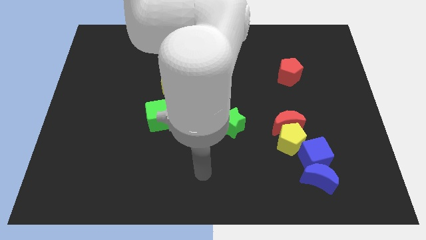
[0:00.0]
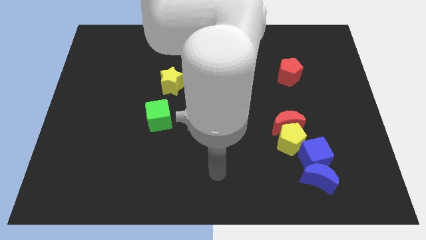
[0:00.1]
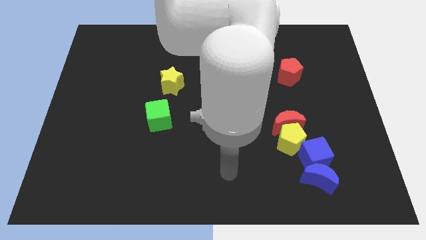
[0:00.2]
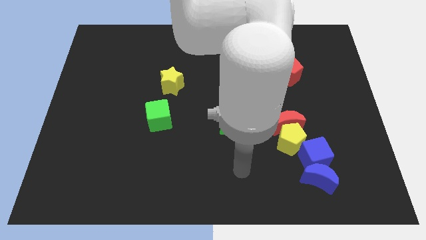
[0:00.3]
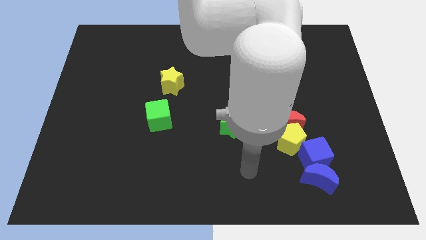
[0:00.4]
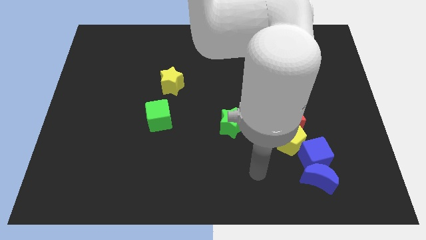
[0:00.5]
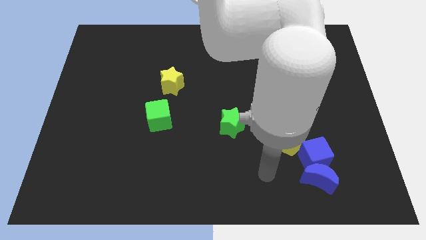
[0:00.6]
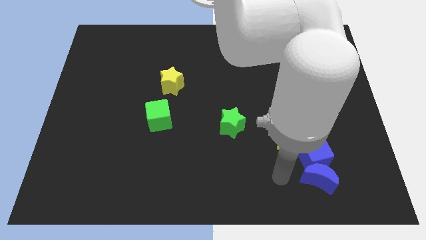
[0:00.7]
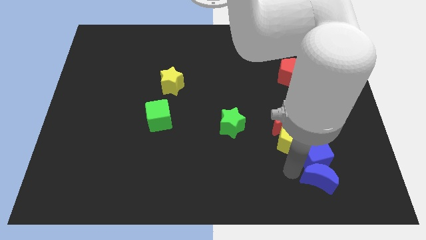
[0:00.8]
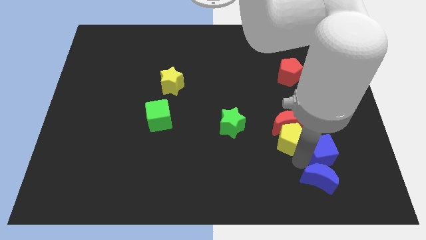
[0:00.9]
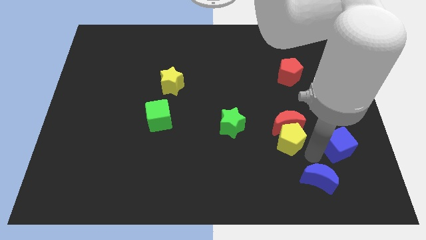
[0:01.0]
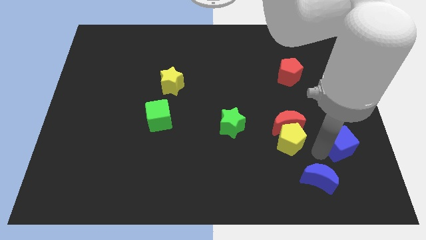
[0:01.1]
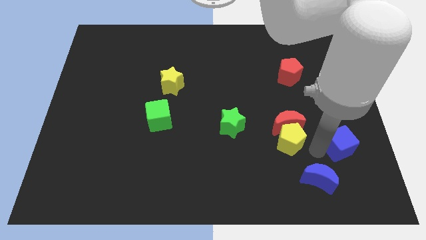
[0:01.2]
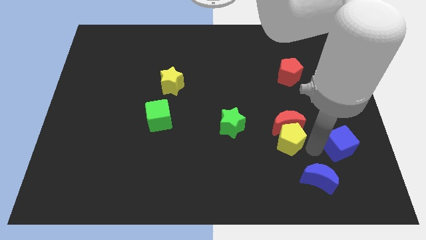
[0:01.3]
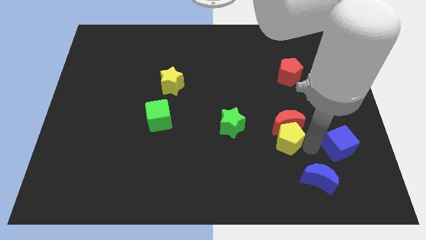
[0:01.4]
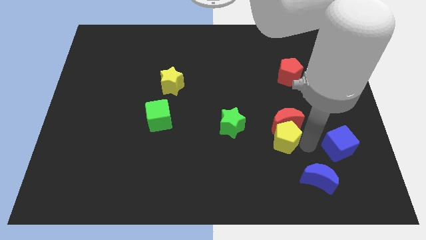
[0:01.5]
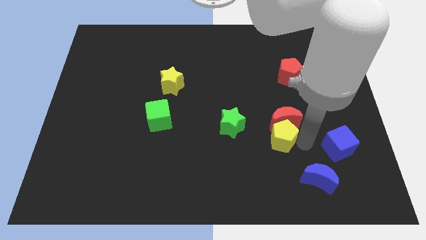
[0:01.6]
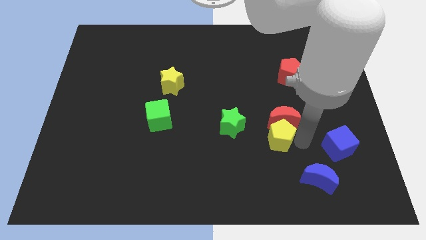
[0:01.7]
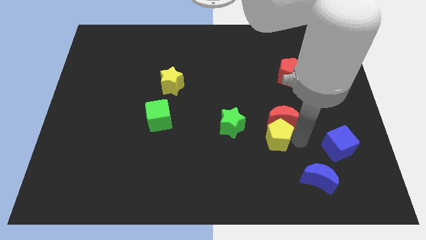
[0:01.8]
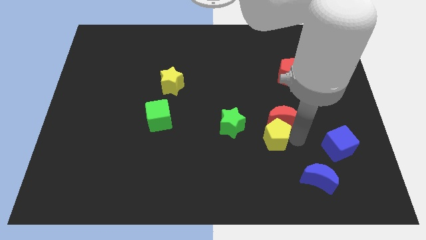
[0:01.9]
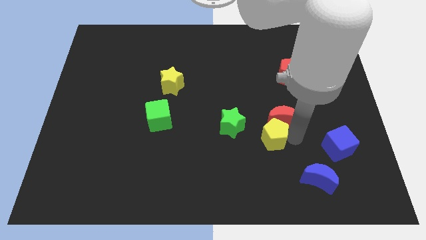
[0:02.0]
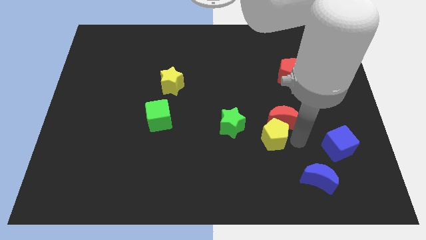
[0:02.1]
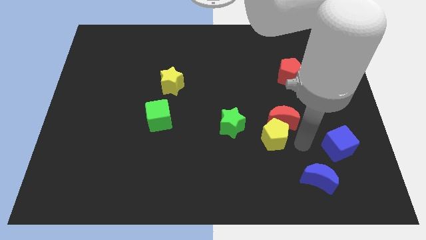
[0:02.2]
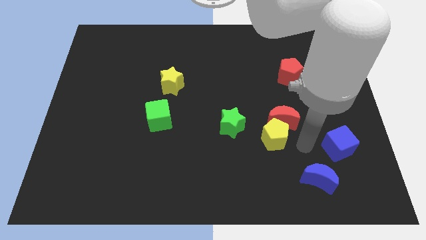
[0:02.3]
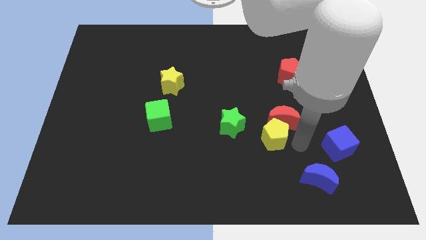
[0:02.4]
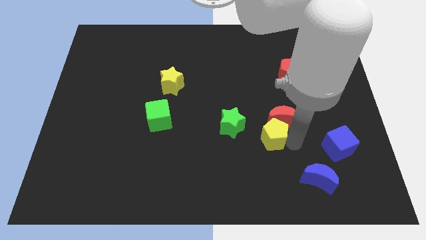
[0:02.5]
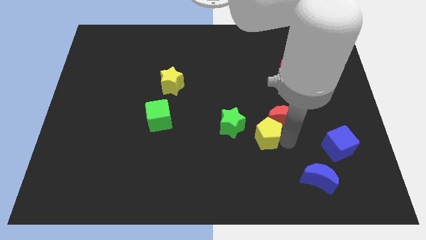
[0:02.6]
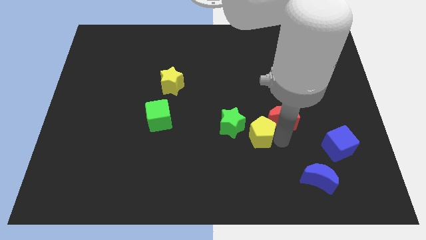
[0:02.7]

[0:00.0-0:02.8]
move the yellow pentagon away from the group

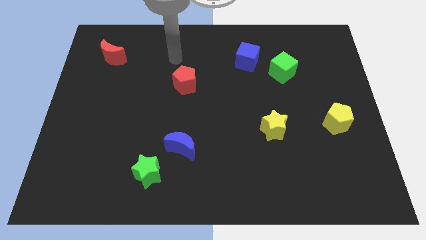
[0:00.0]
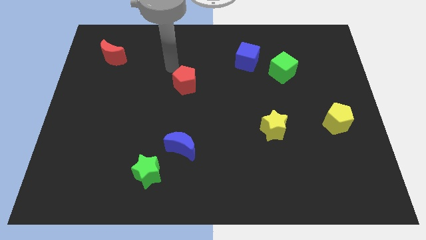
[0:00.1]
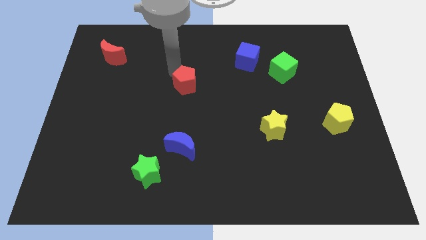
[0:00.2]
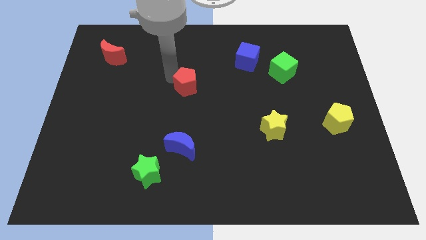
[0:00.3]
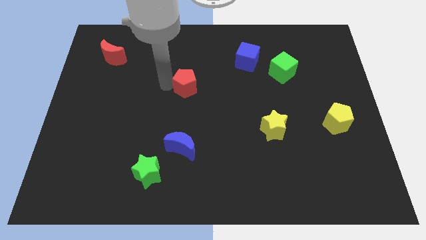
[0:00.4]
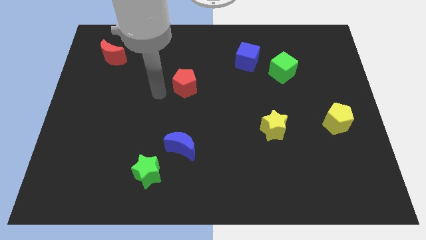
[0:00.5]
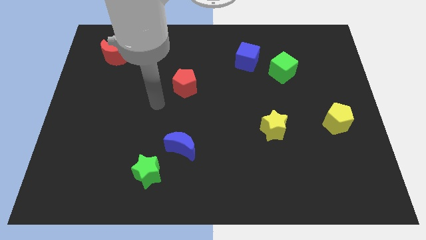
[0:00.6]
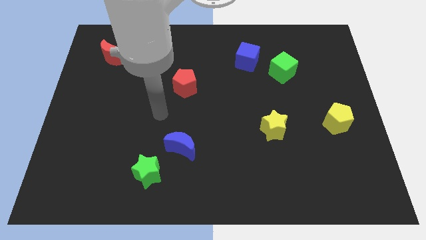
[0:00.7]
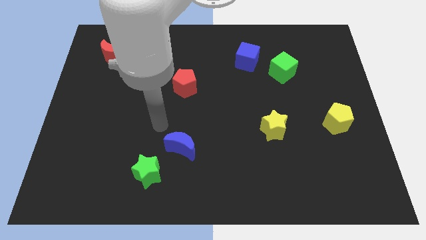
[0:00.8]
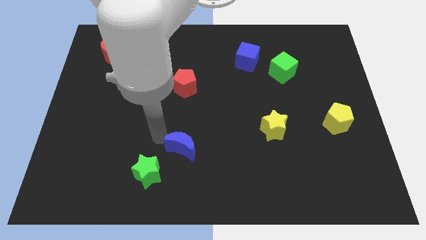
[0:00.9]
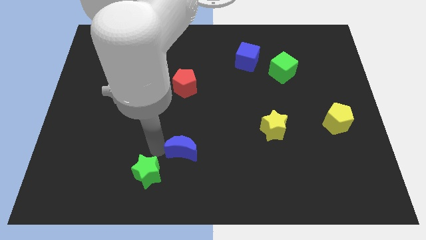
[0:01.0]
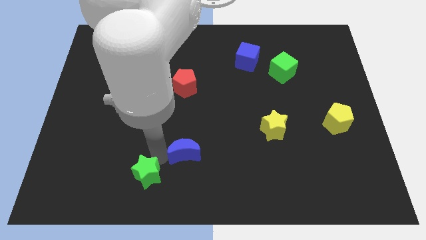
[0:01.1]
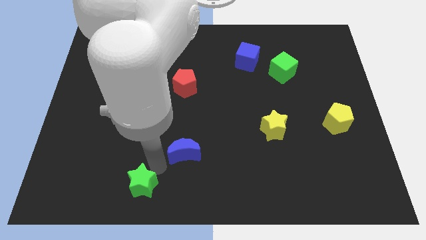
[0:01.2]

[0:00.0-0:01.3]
pull the blue moon apart from the green star

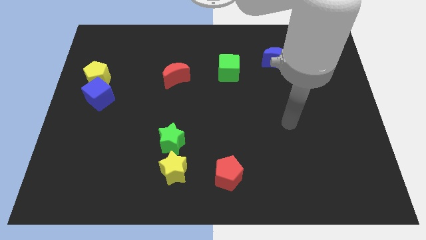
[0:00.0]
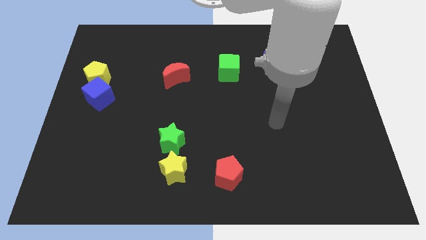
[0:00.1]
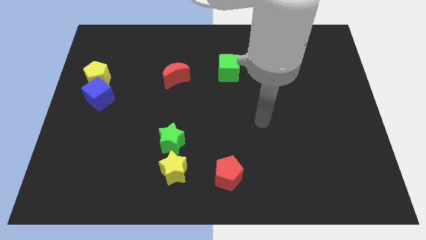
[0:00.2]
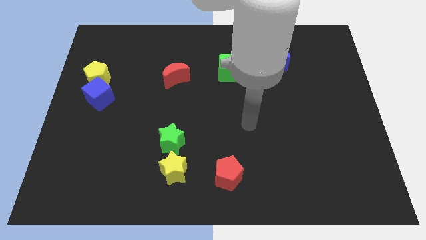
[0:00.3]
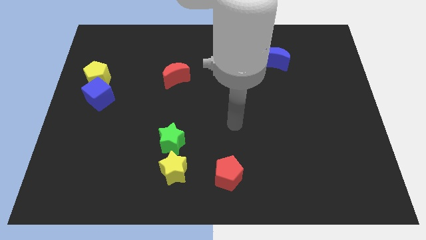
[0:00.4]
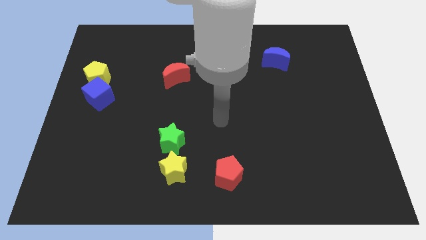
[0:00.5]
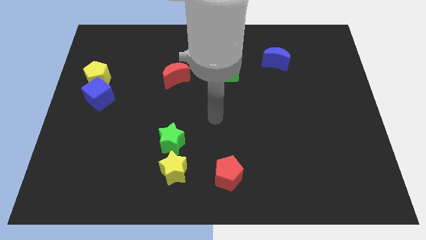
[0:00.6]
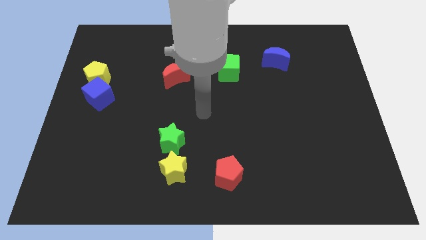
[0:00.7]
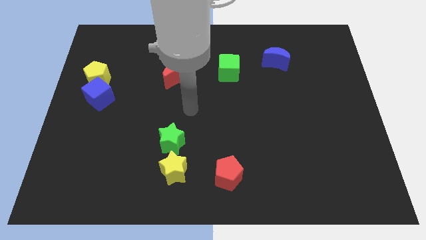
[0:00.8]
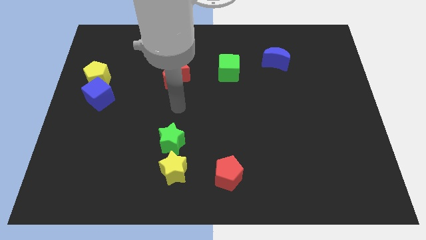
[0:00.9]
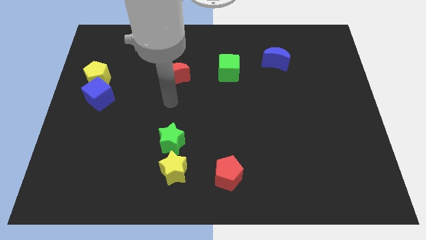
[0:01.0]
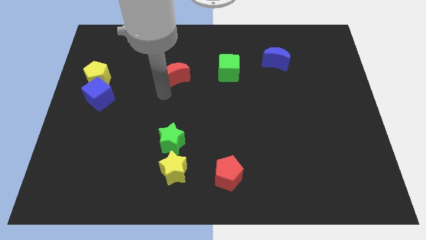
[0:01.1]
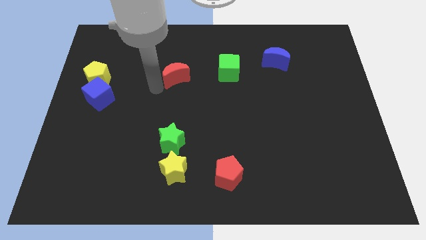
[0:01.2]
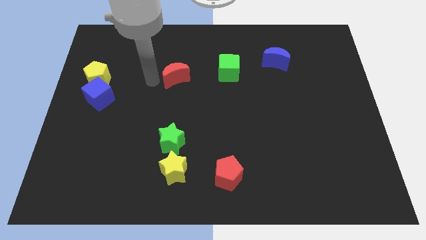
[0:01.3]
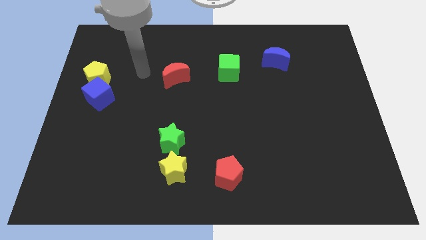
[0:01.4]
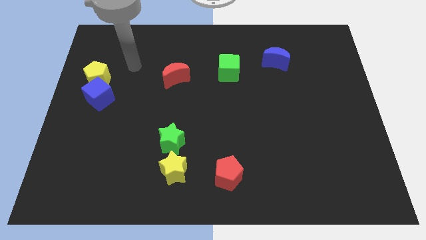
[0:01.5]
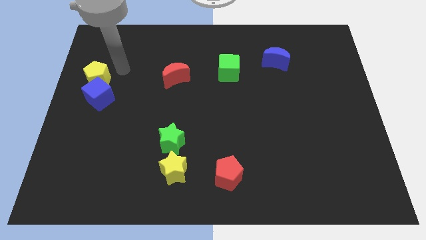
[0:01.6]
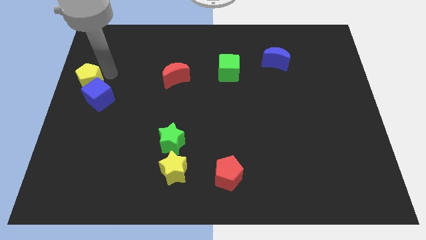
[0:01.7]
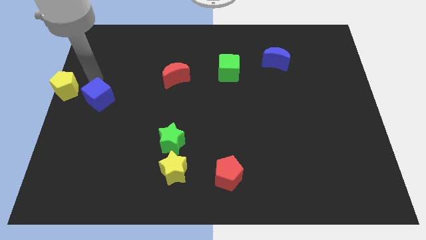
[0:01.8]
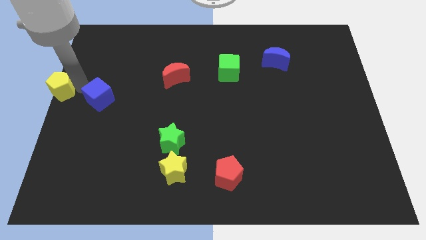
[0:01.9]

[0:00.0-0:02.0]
separate the blue cube from the yellow pentagon

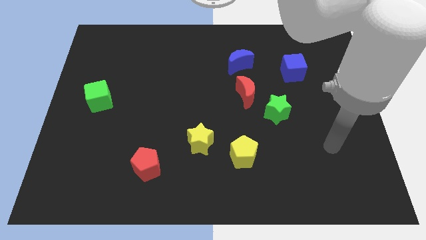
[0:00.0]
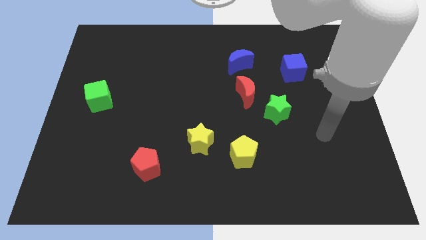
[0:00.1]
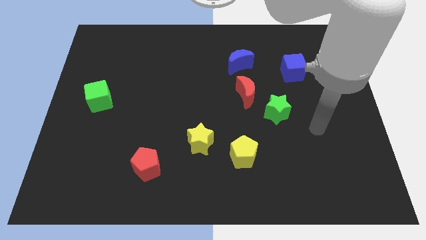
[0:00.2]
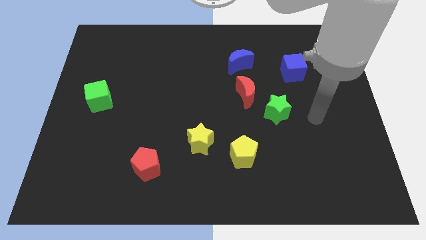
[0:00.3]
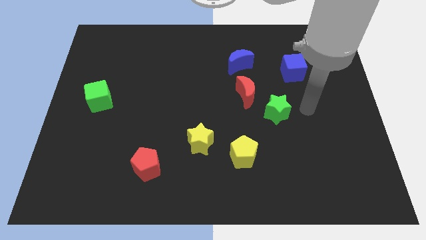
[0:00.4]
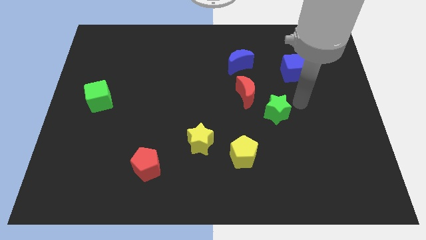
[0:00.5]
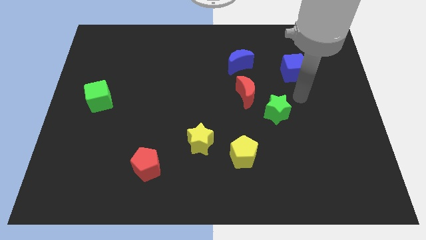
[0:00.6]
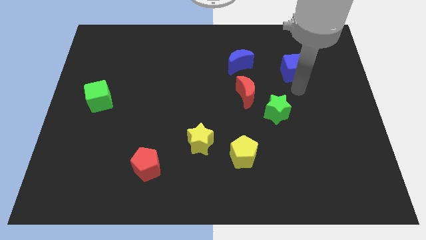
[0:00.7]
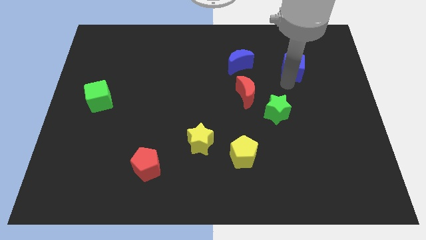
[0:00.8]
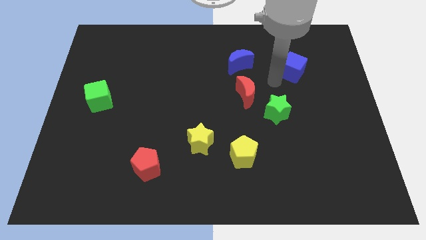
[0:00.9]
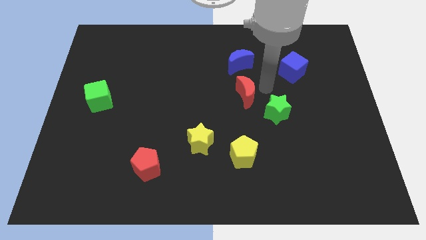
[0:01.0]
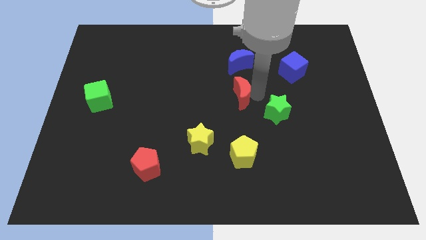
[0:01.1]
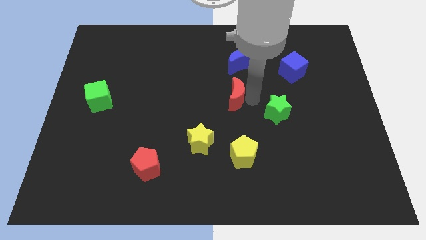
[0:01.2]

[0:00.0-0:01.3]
move the green star away from the red moon

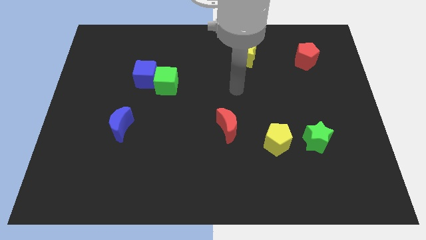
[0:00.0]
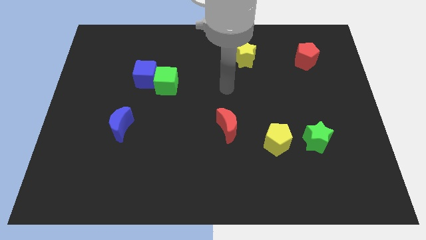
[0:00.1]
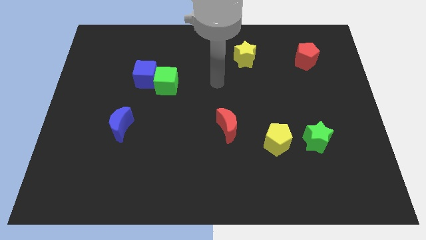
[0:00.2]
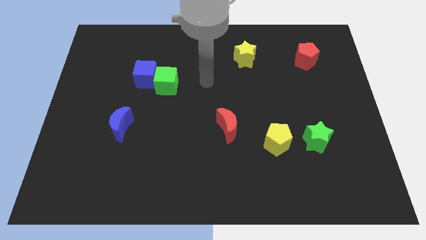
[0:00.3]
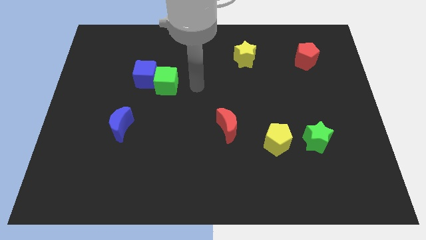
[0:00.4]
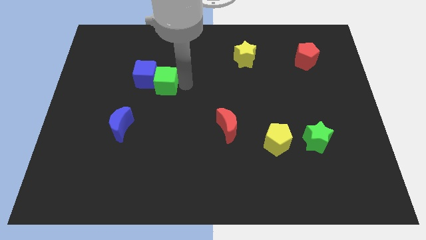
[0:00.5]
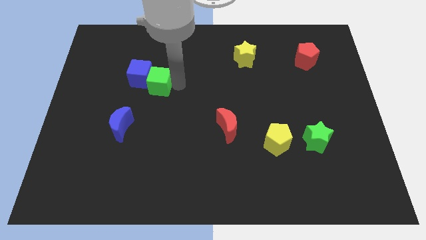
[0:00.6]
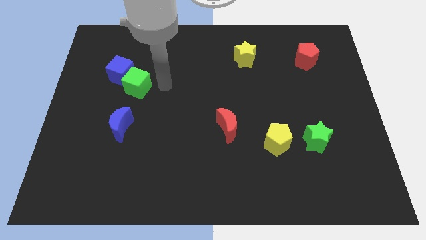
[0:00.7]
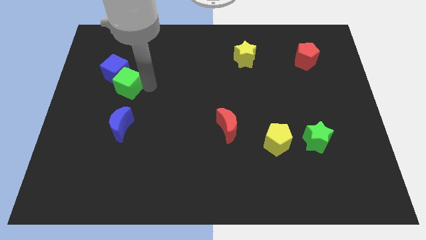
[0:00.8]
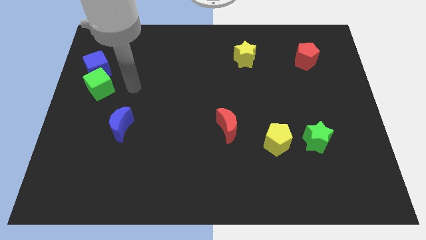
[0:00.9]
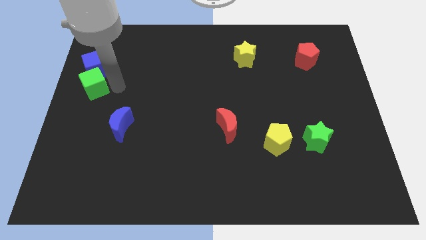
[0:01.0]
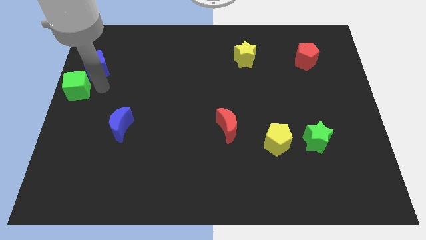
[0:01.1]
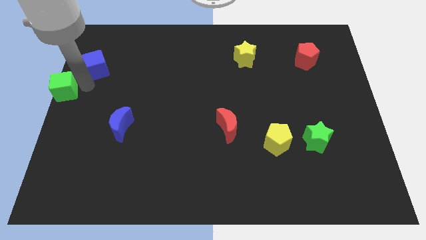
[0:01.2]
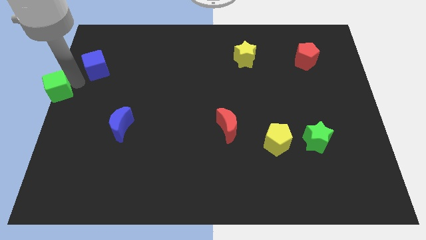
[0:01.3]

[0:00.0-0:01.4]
pull the blue cube apart from the green cube

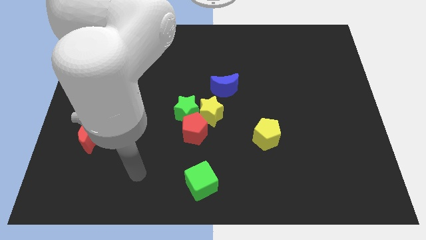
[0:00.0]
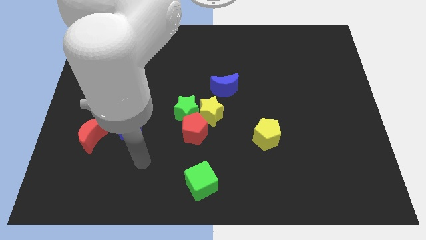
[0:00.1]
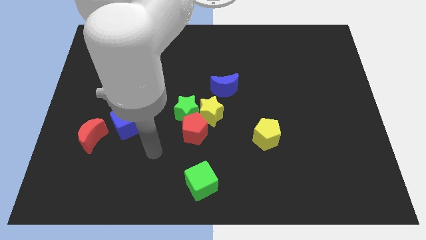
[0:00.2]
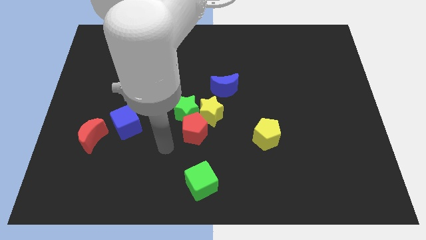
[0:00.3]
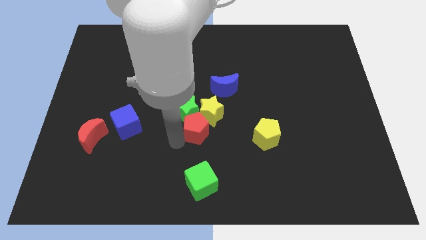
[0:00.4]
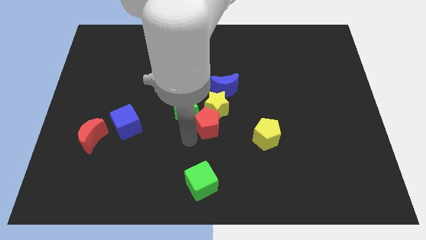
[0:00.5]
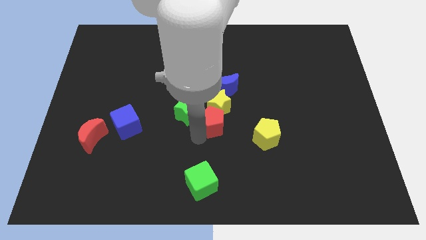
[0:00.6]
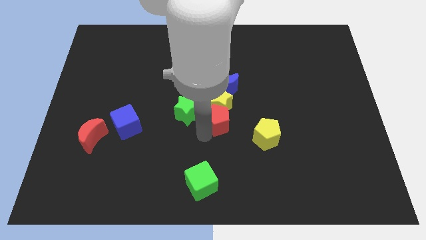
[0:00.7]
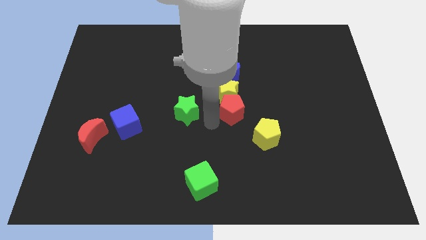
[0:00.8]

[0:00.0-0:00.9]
pull the green star apart from the yellow star and red pentagon
